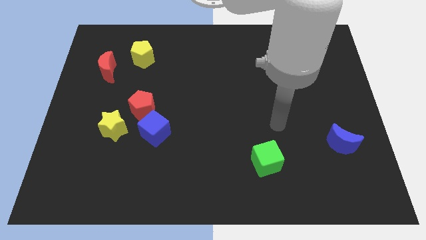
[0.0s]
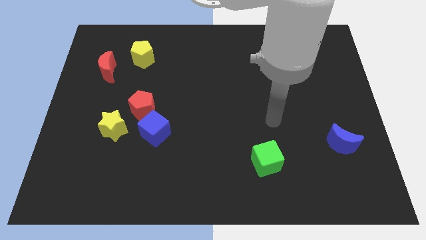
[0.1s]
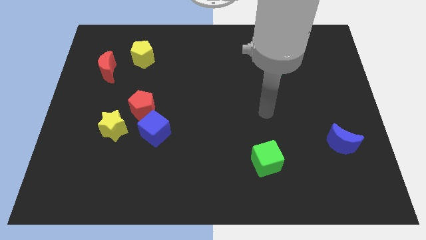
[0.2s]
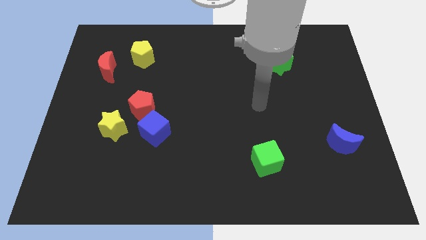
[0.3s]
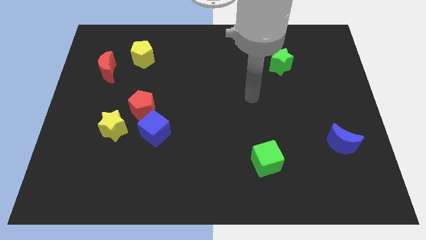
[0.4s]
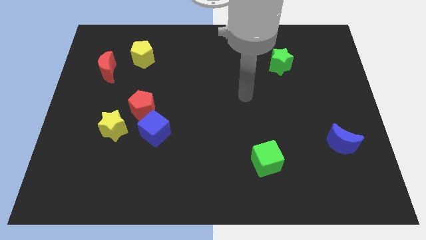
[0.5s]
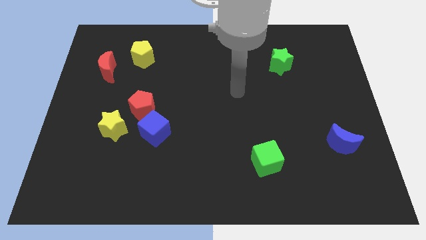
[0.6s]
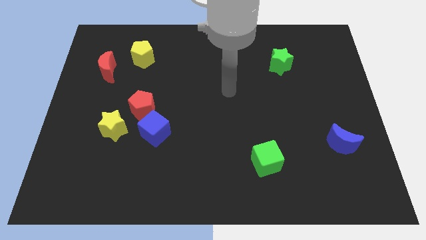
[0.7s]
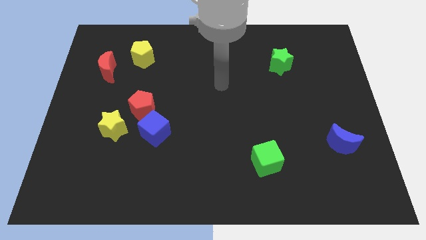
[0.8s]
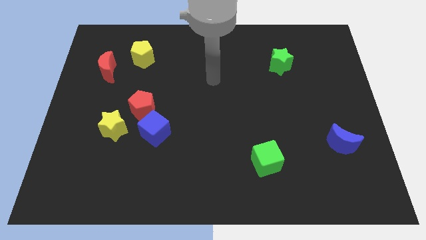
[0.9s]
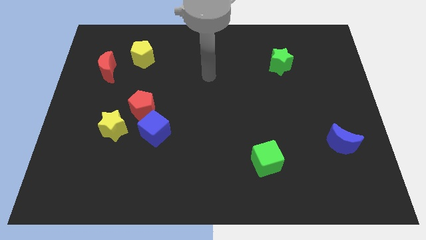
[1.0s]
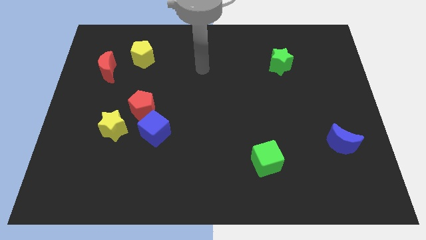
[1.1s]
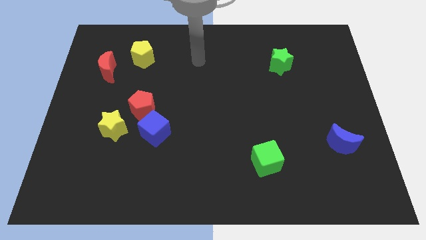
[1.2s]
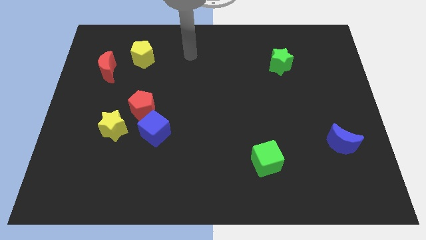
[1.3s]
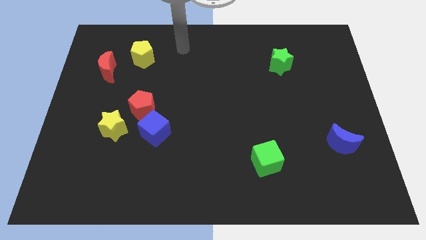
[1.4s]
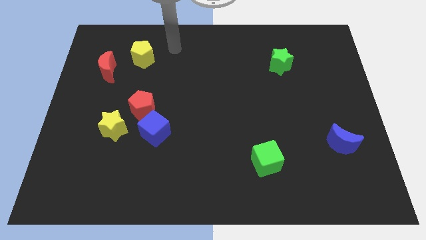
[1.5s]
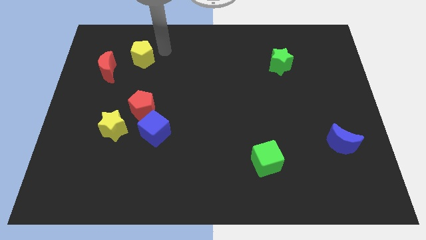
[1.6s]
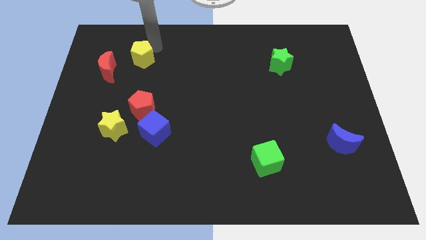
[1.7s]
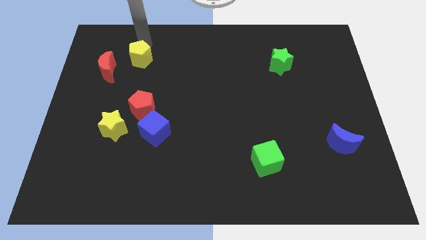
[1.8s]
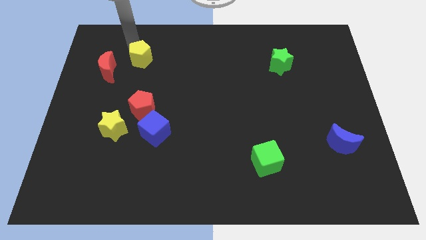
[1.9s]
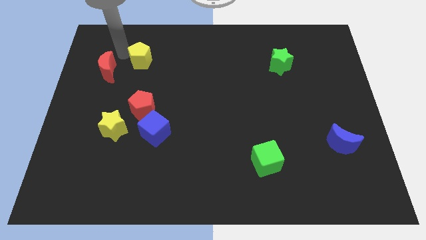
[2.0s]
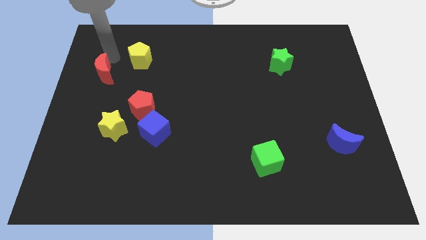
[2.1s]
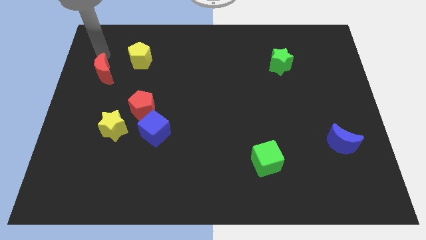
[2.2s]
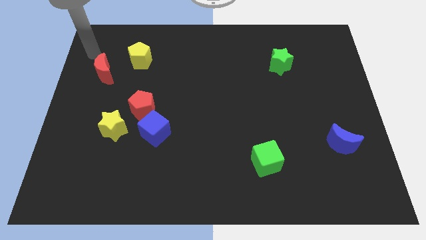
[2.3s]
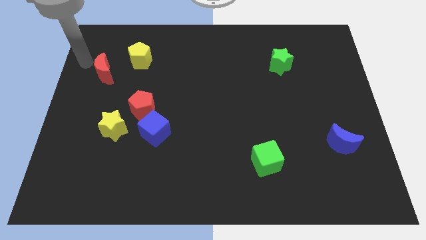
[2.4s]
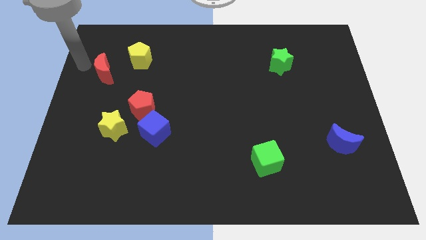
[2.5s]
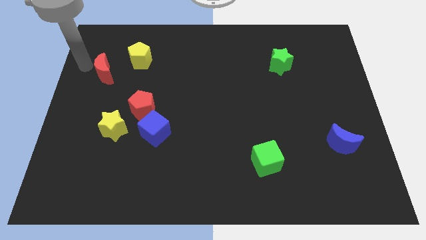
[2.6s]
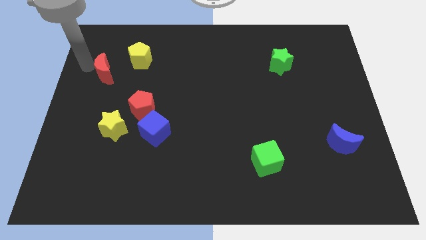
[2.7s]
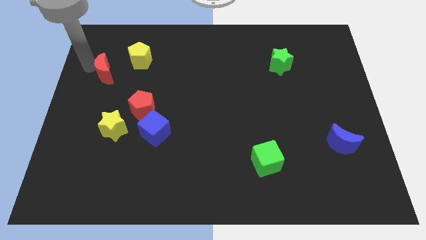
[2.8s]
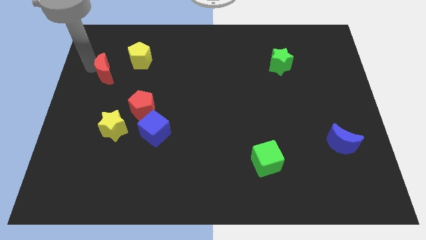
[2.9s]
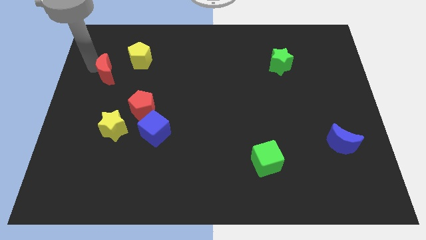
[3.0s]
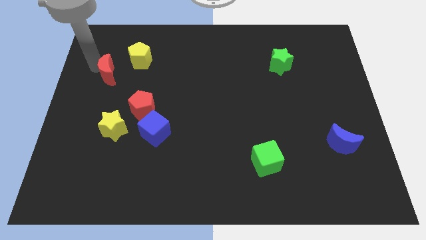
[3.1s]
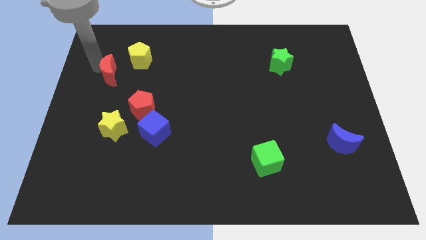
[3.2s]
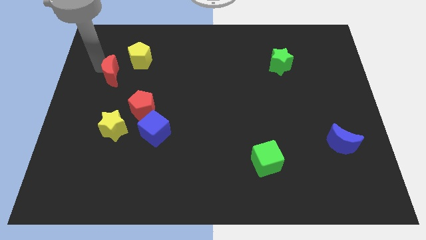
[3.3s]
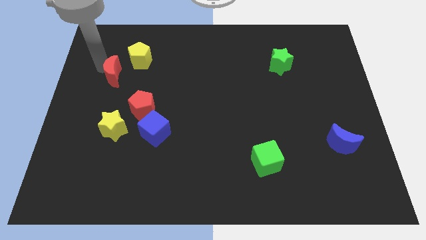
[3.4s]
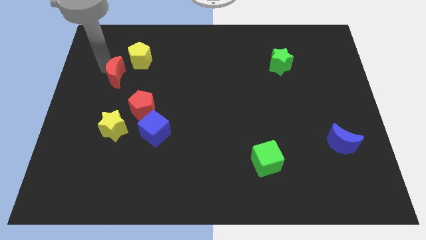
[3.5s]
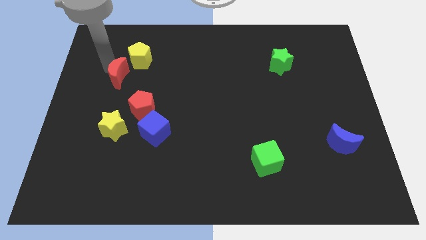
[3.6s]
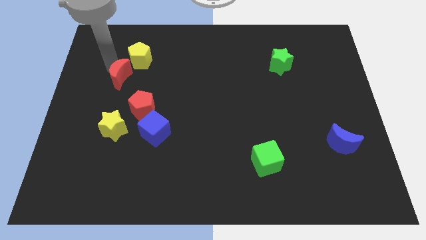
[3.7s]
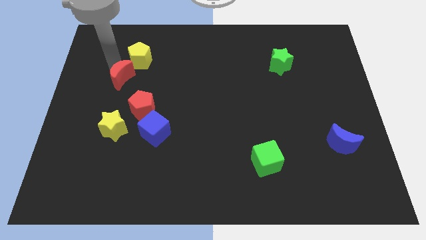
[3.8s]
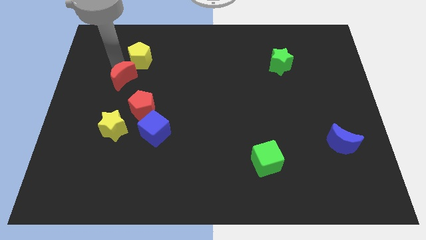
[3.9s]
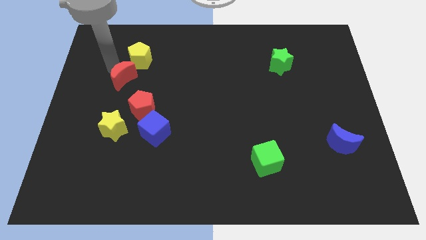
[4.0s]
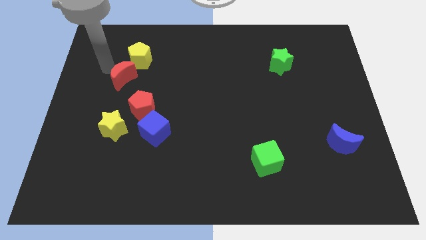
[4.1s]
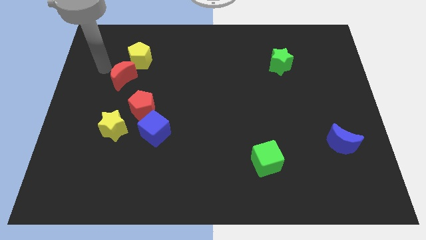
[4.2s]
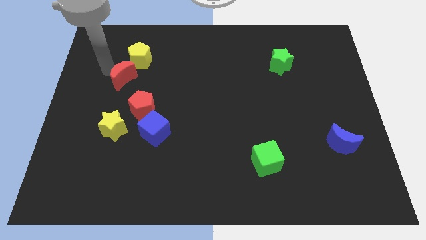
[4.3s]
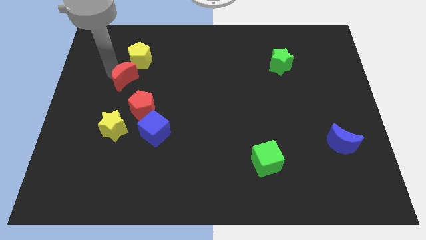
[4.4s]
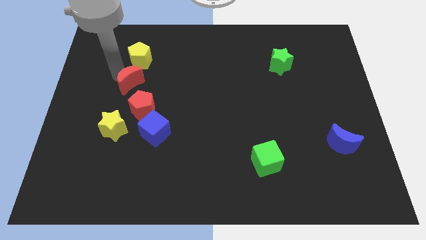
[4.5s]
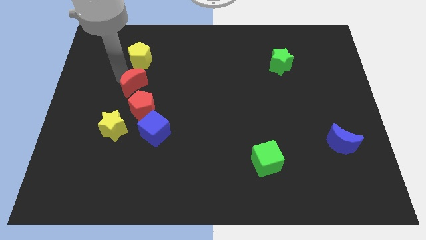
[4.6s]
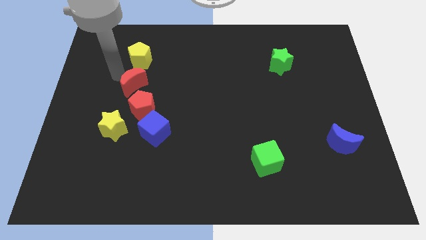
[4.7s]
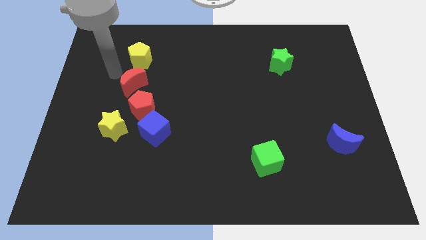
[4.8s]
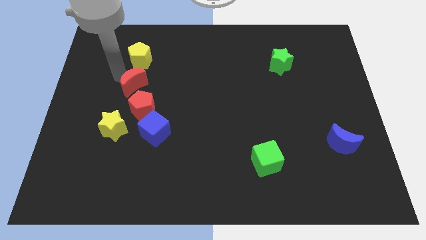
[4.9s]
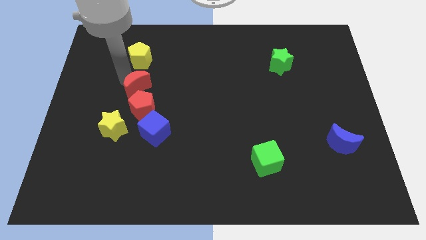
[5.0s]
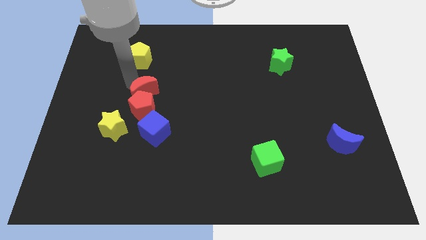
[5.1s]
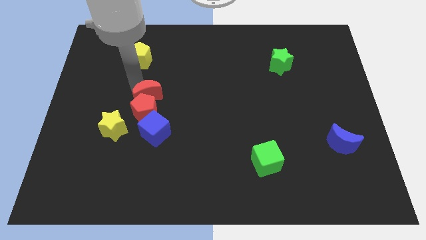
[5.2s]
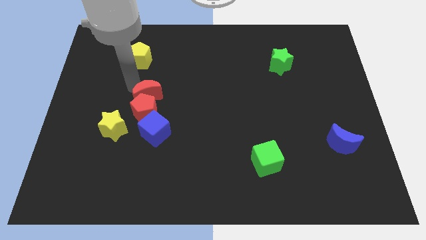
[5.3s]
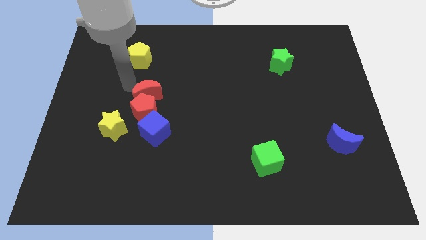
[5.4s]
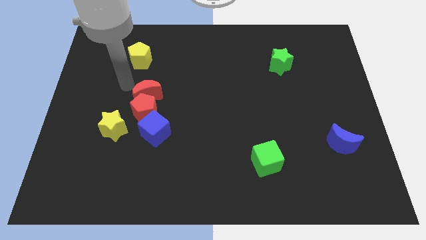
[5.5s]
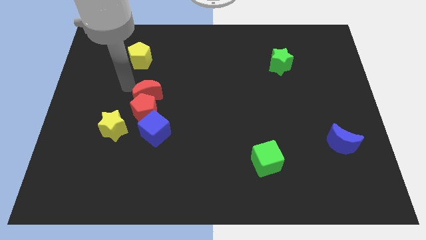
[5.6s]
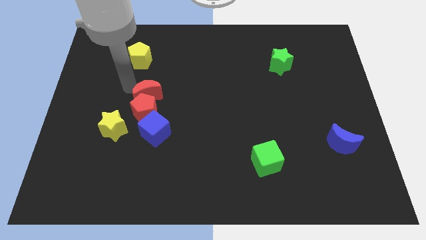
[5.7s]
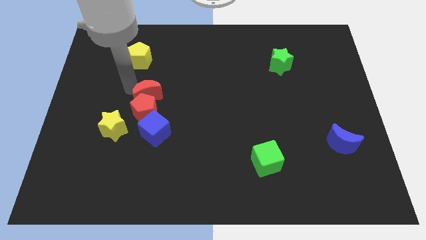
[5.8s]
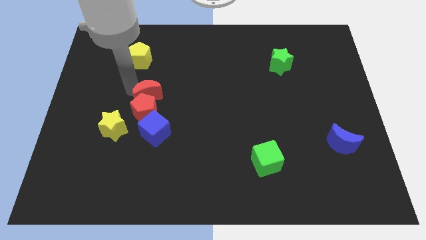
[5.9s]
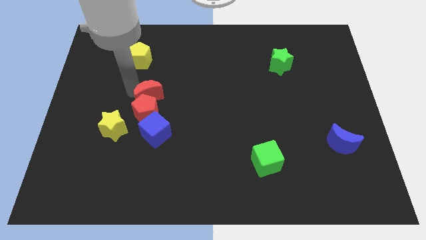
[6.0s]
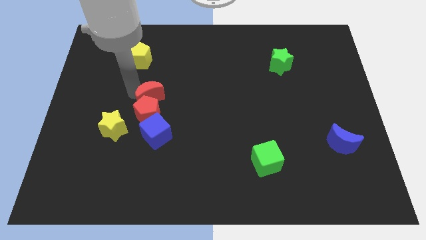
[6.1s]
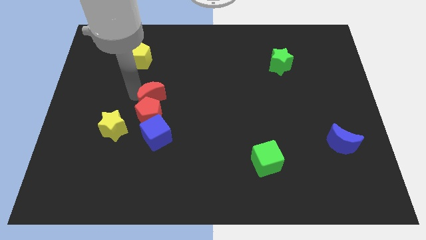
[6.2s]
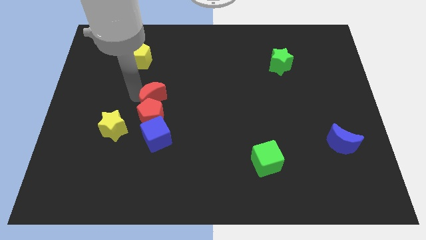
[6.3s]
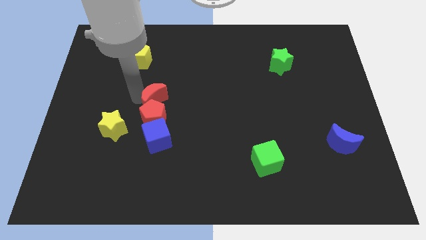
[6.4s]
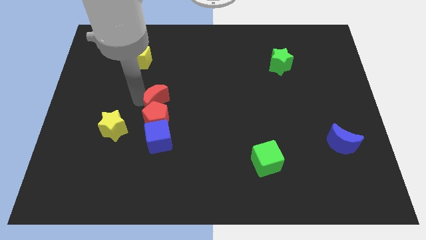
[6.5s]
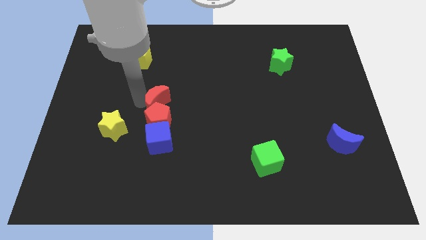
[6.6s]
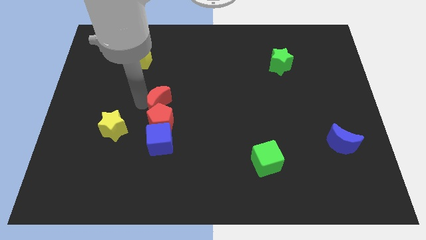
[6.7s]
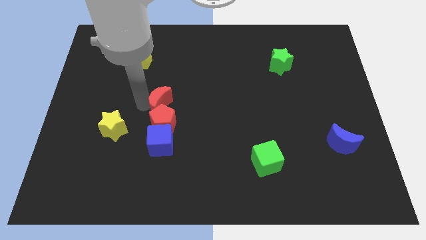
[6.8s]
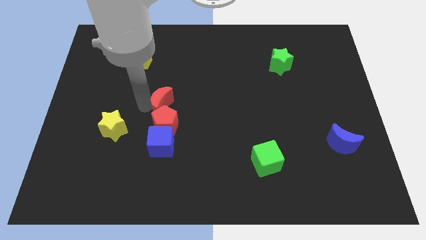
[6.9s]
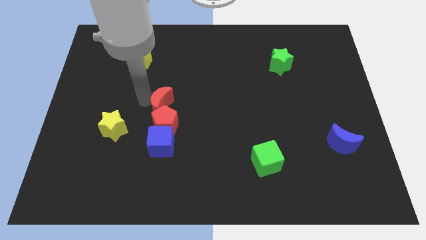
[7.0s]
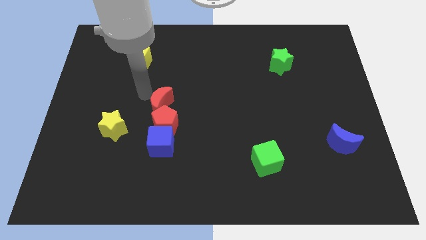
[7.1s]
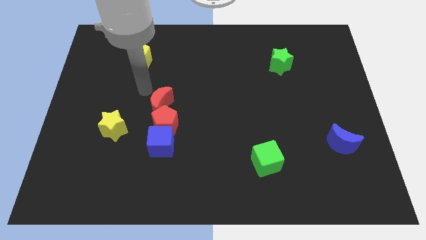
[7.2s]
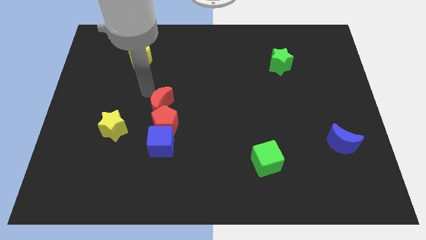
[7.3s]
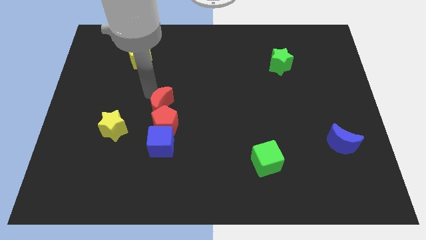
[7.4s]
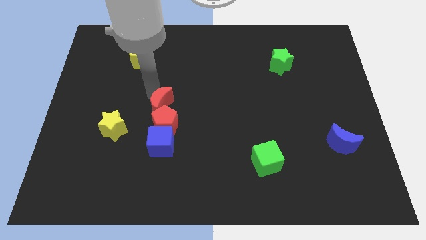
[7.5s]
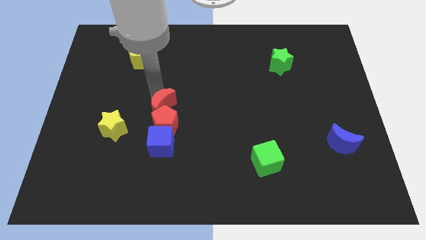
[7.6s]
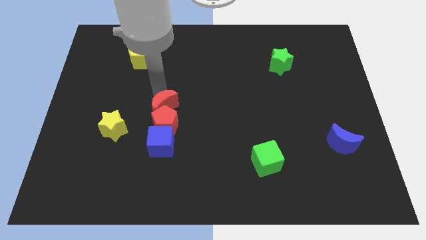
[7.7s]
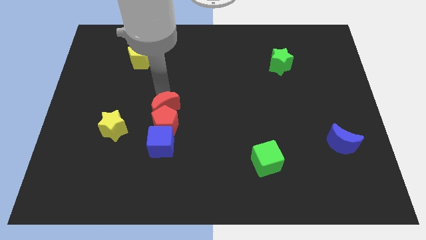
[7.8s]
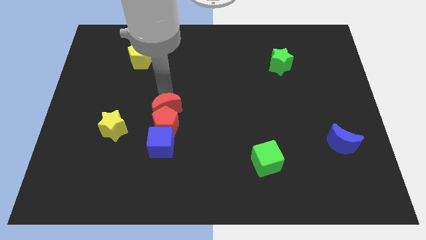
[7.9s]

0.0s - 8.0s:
push the red moon diagonally downwards and to the right

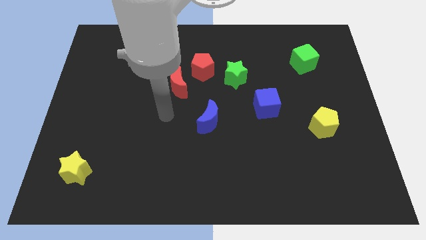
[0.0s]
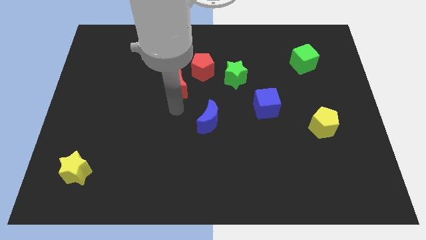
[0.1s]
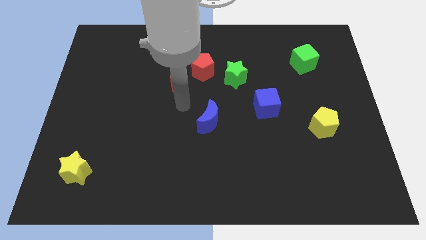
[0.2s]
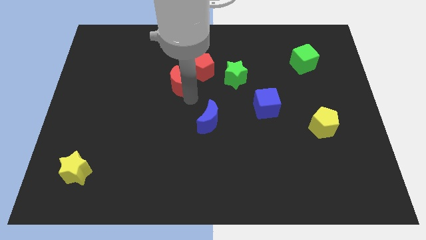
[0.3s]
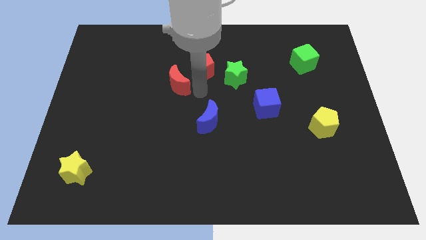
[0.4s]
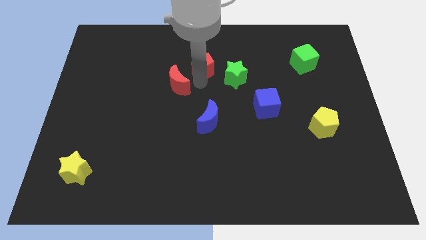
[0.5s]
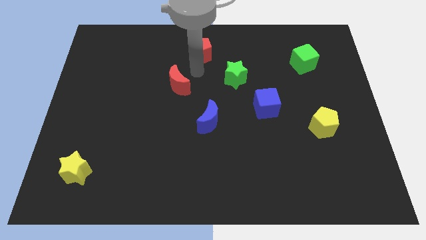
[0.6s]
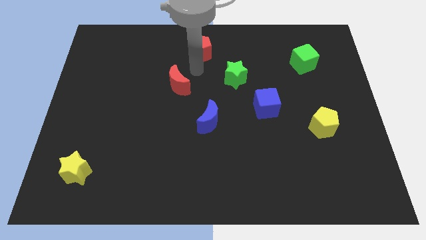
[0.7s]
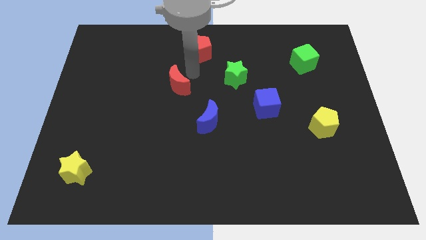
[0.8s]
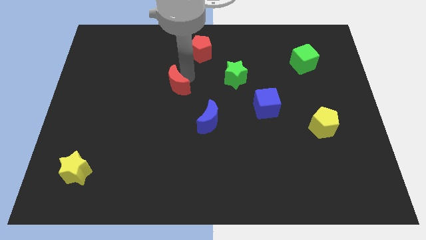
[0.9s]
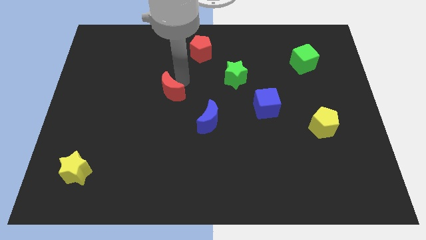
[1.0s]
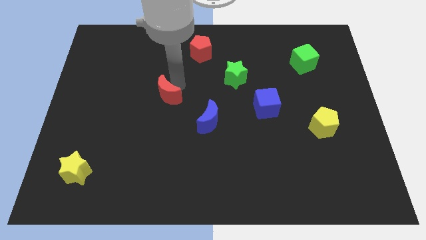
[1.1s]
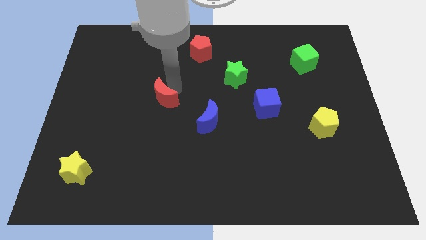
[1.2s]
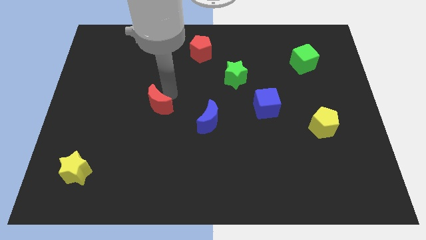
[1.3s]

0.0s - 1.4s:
slightly move the red moon diagonally down and to the left
